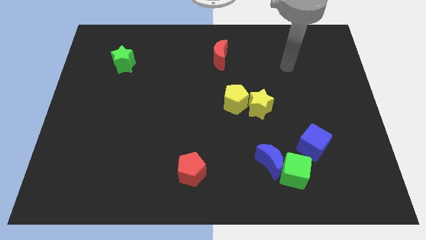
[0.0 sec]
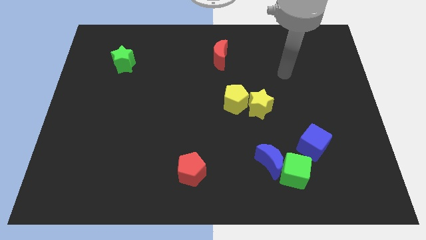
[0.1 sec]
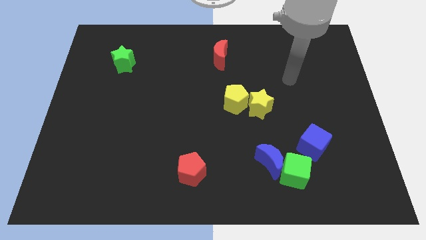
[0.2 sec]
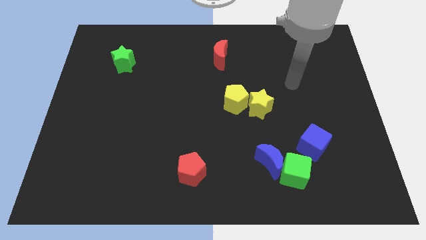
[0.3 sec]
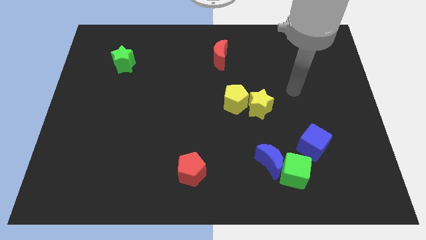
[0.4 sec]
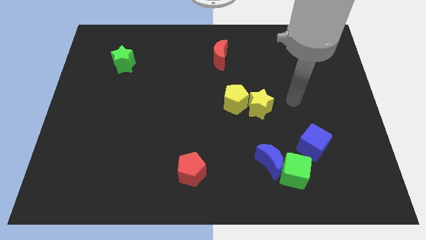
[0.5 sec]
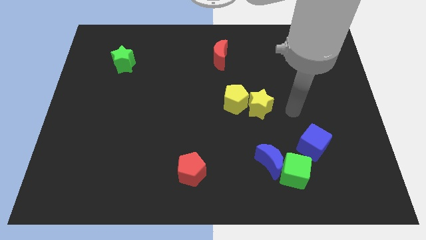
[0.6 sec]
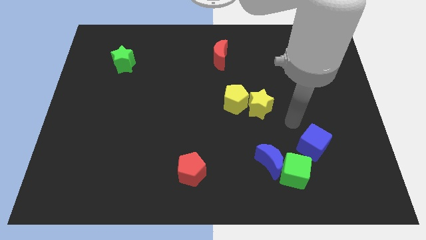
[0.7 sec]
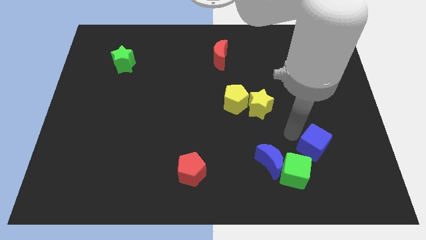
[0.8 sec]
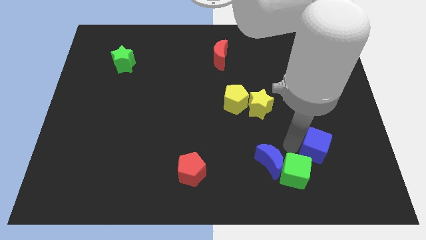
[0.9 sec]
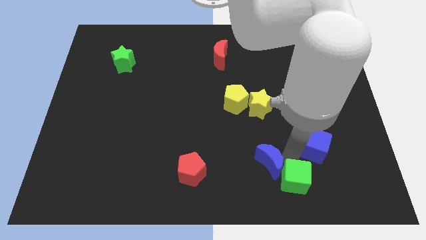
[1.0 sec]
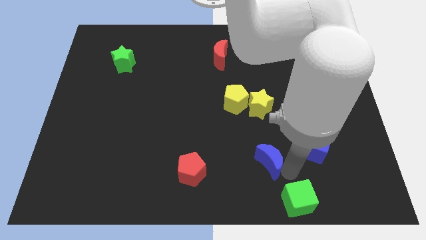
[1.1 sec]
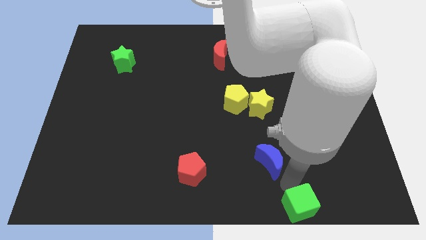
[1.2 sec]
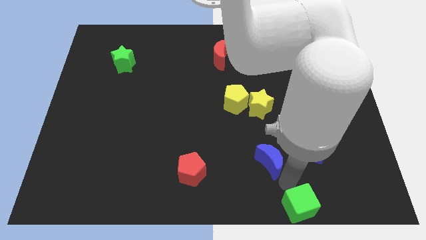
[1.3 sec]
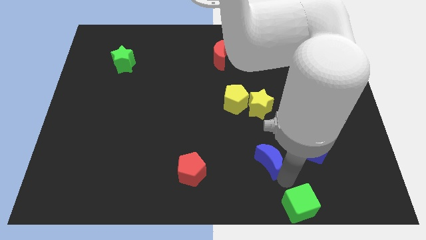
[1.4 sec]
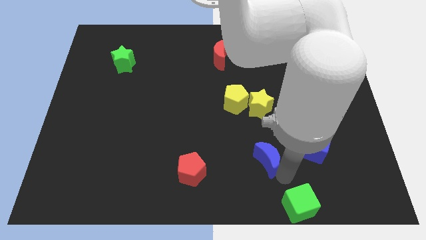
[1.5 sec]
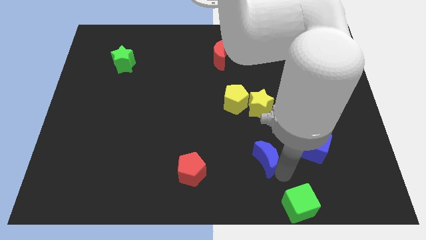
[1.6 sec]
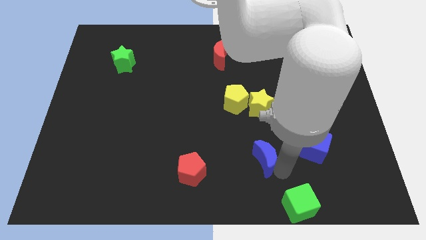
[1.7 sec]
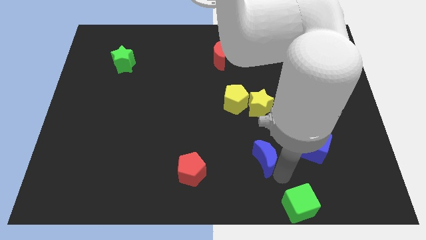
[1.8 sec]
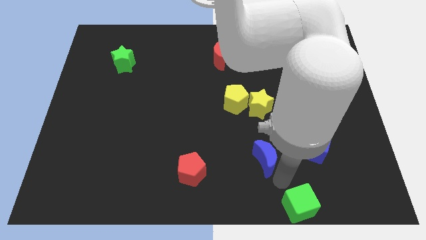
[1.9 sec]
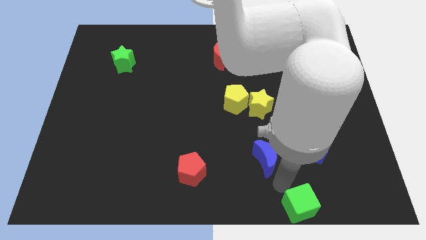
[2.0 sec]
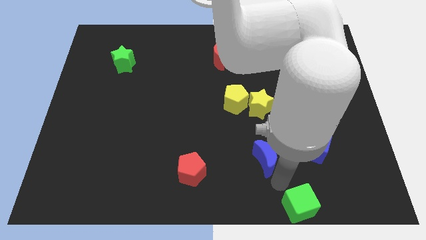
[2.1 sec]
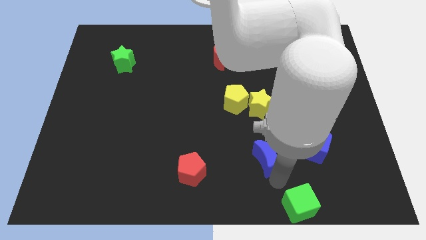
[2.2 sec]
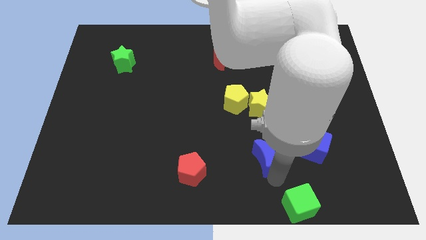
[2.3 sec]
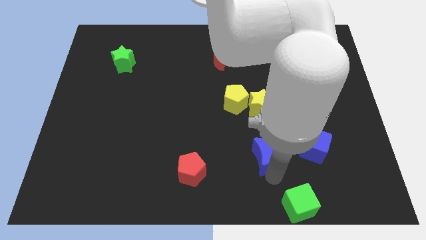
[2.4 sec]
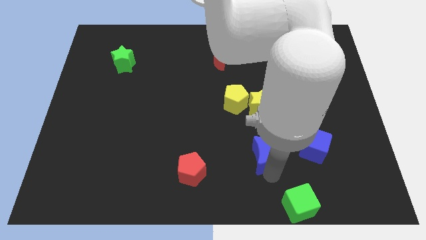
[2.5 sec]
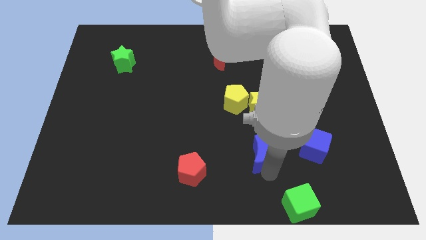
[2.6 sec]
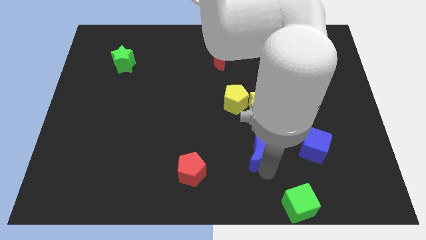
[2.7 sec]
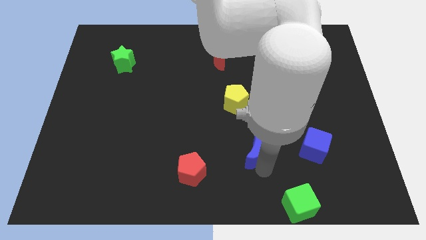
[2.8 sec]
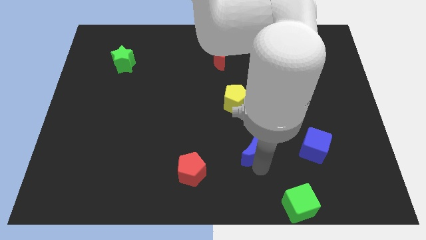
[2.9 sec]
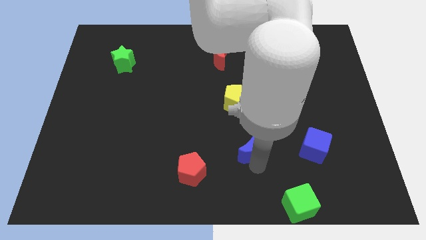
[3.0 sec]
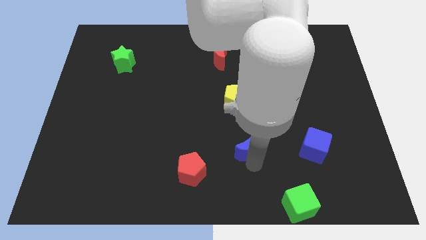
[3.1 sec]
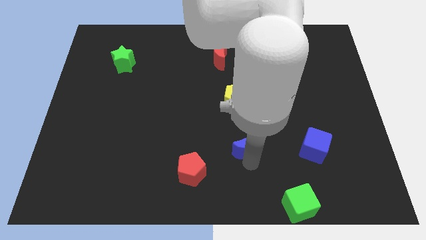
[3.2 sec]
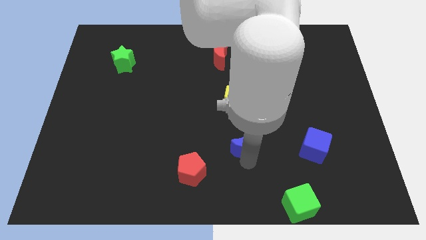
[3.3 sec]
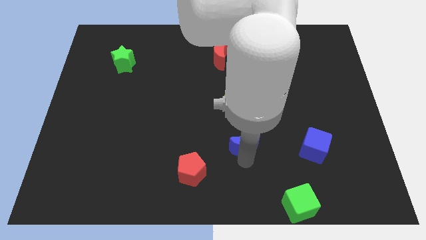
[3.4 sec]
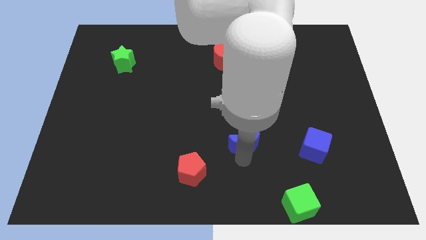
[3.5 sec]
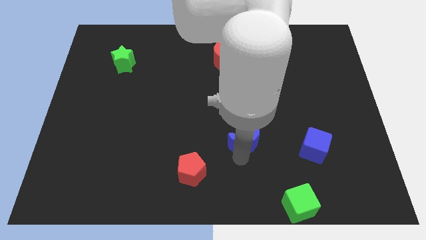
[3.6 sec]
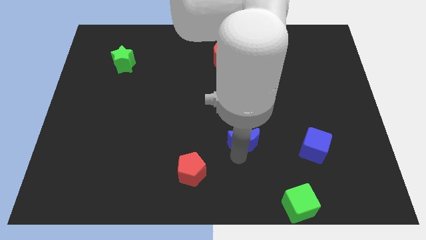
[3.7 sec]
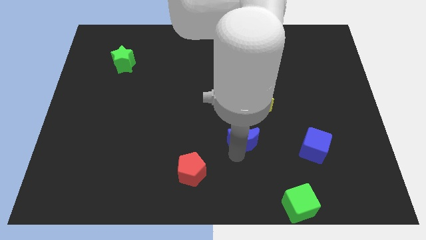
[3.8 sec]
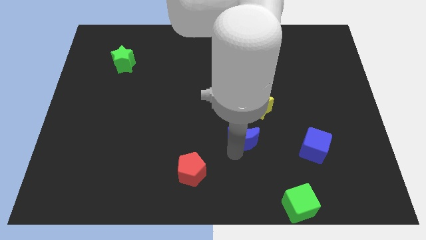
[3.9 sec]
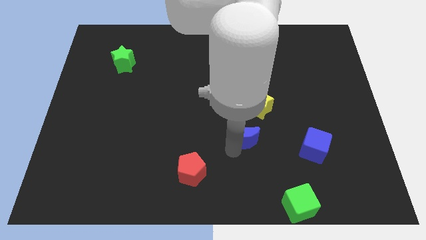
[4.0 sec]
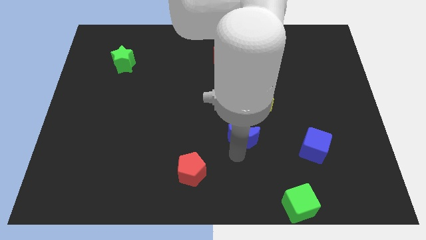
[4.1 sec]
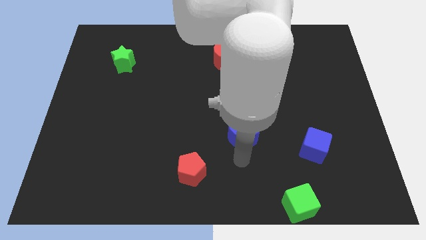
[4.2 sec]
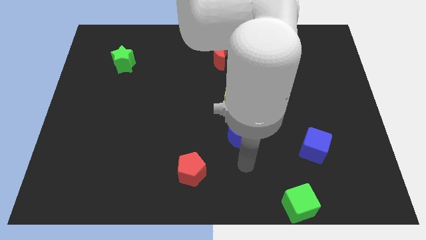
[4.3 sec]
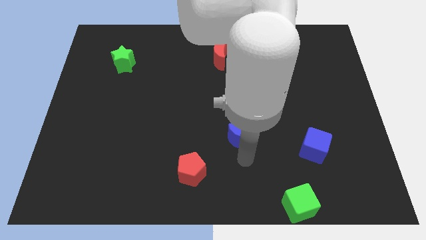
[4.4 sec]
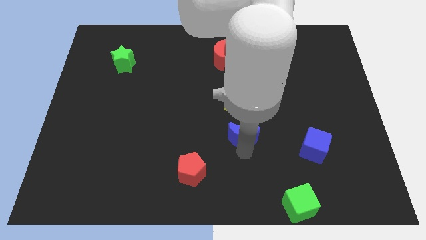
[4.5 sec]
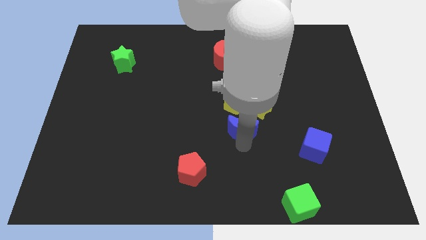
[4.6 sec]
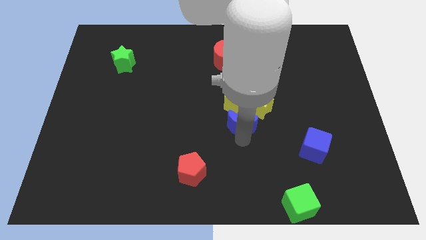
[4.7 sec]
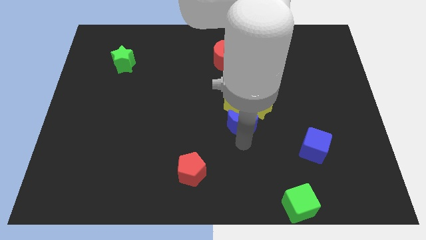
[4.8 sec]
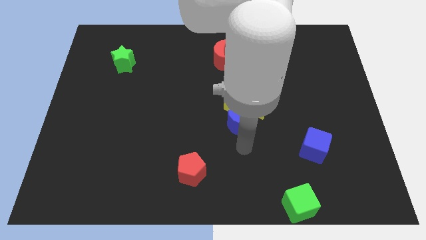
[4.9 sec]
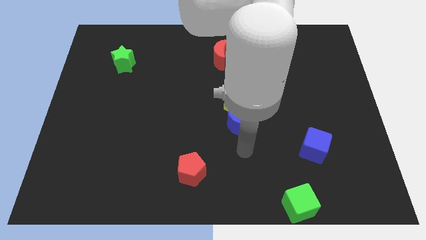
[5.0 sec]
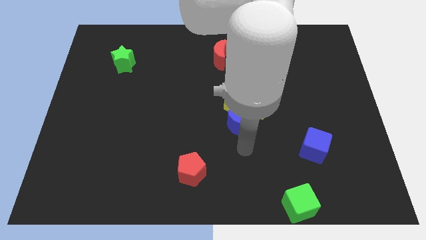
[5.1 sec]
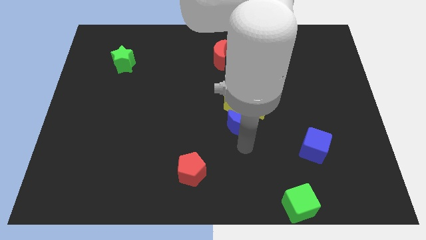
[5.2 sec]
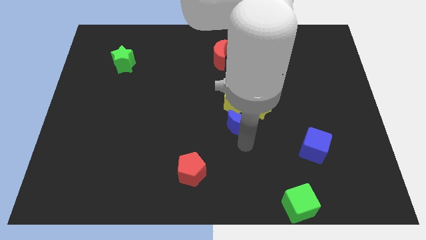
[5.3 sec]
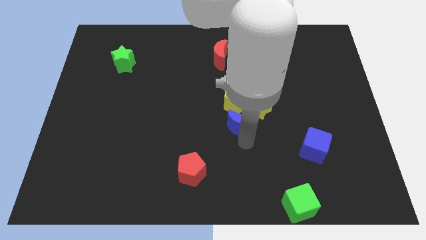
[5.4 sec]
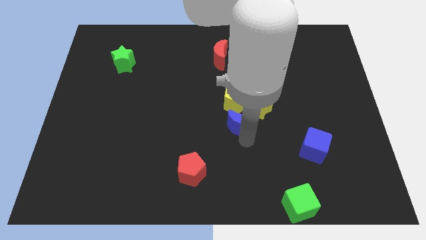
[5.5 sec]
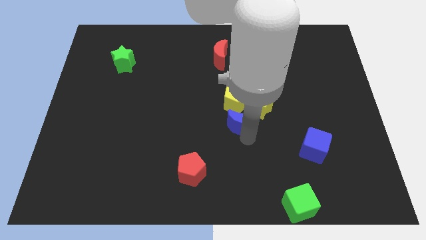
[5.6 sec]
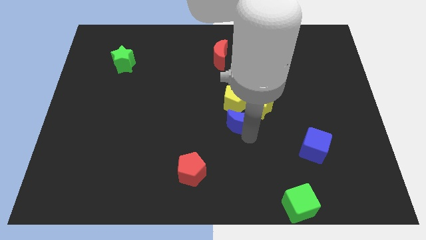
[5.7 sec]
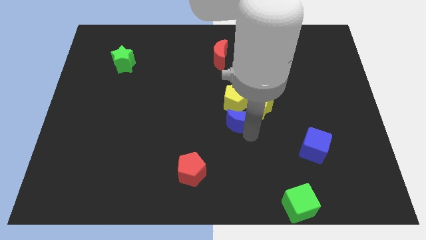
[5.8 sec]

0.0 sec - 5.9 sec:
slide the blue moon next to the yellow pentagon

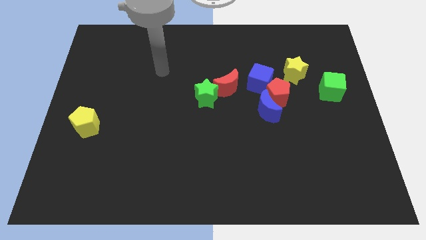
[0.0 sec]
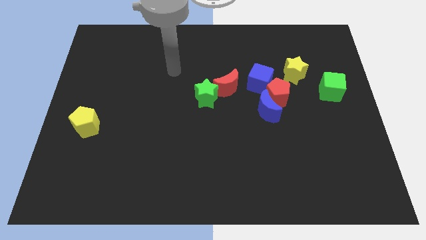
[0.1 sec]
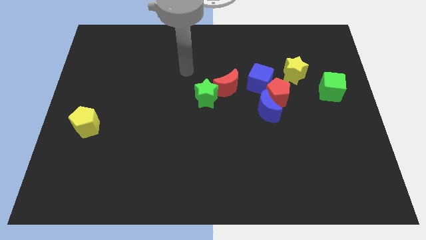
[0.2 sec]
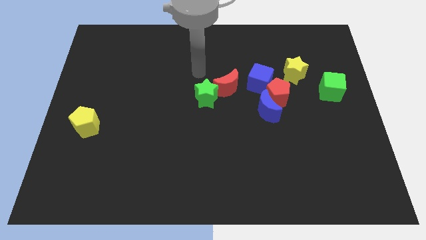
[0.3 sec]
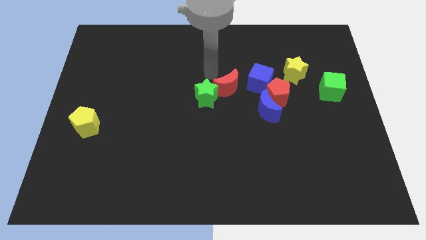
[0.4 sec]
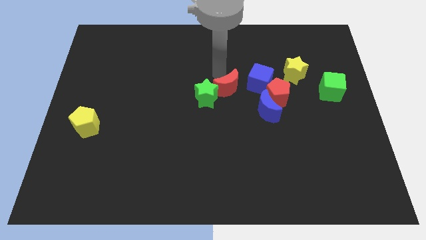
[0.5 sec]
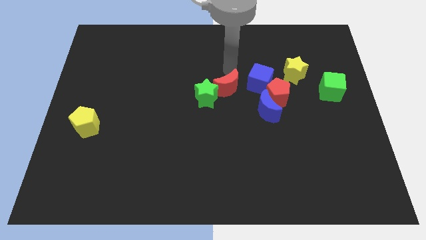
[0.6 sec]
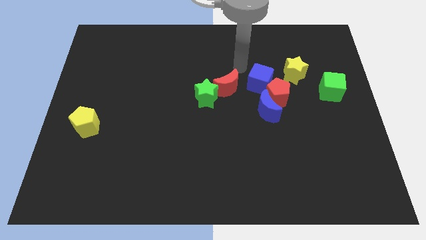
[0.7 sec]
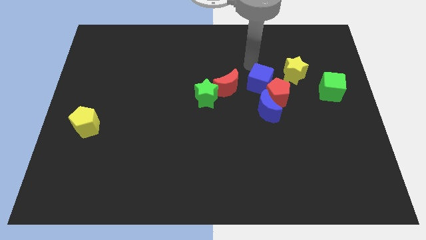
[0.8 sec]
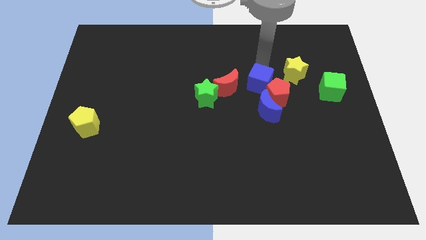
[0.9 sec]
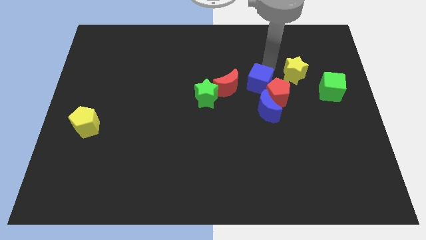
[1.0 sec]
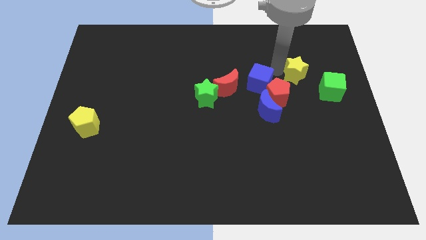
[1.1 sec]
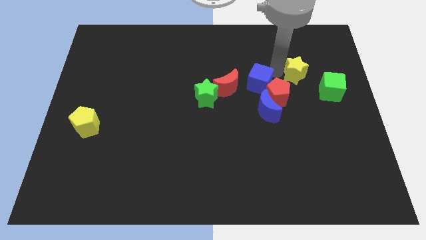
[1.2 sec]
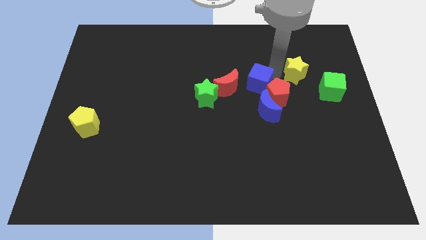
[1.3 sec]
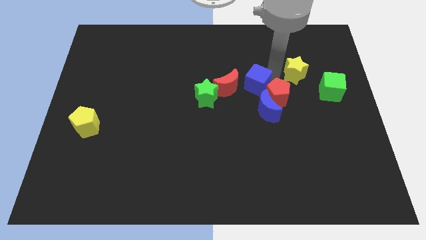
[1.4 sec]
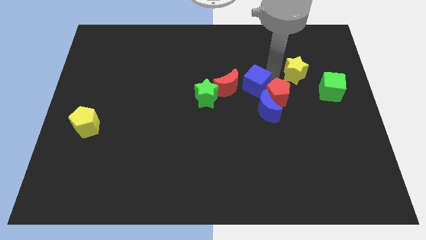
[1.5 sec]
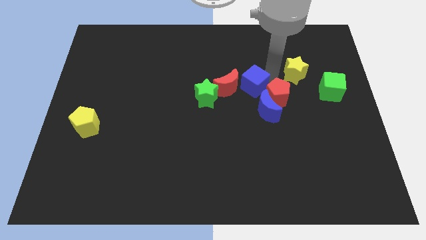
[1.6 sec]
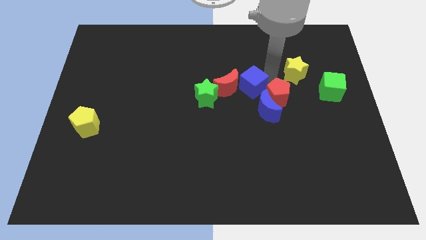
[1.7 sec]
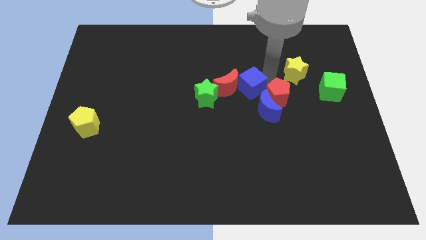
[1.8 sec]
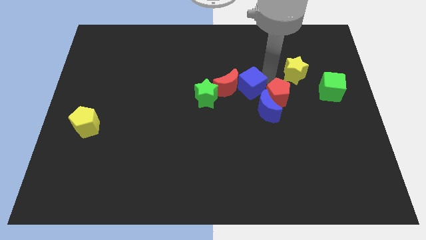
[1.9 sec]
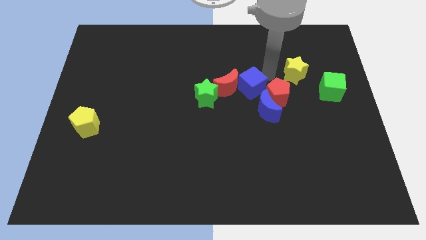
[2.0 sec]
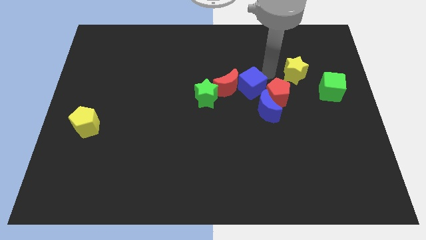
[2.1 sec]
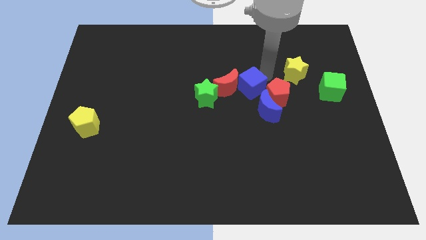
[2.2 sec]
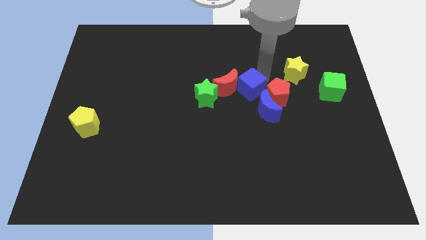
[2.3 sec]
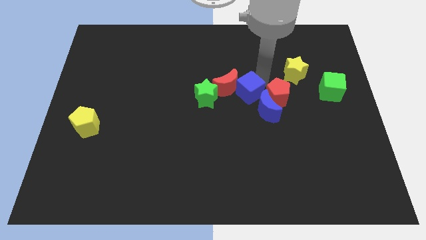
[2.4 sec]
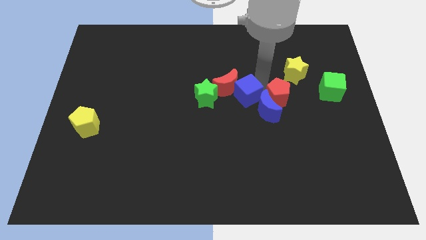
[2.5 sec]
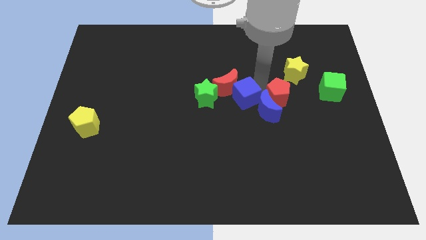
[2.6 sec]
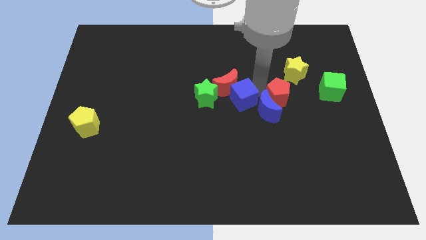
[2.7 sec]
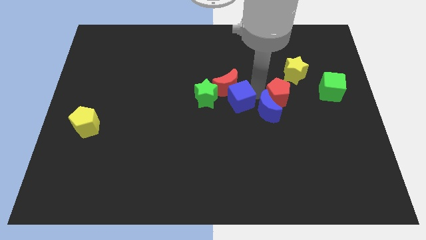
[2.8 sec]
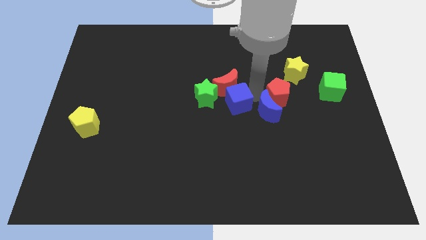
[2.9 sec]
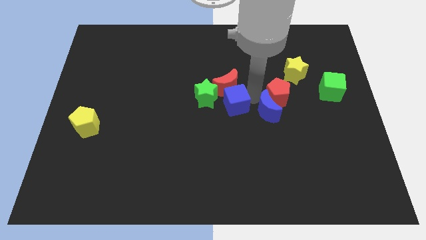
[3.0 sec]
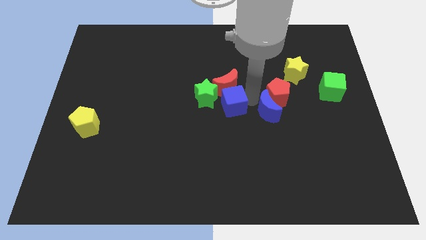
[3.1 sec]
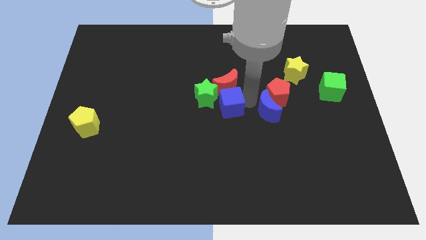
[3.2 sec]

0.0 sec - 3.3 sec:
put the blue cube to the green star
